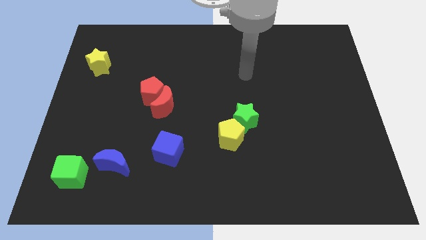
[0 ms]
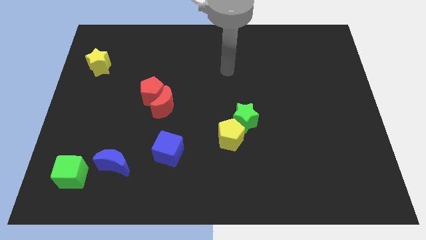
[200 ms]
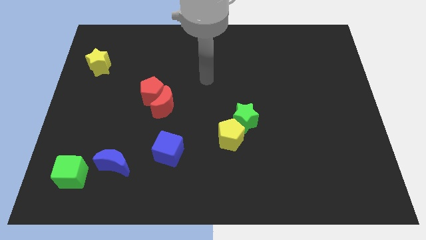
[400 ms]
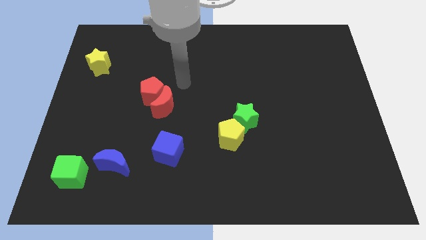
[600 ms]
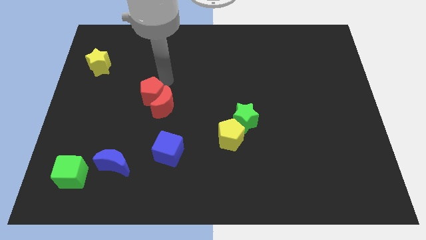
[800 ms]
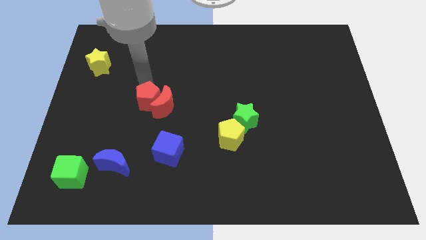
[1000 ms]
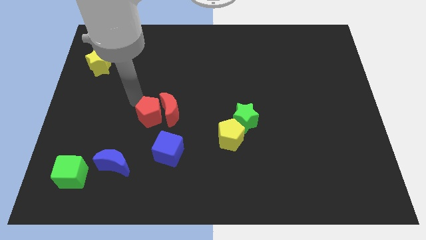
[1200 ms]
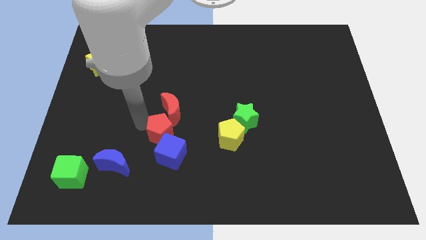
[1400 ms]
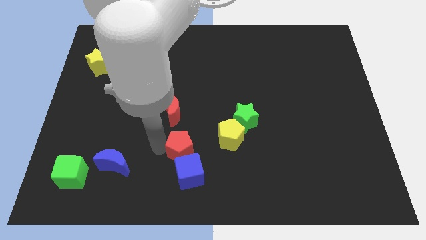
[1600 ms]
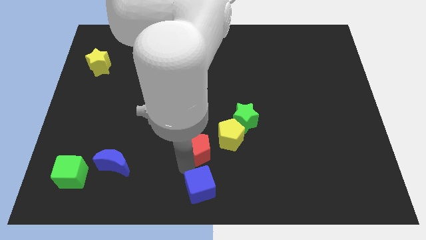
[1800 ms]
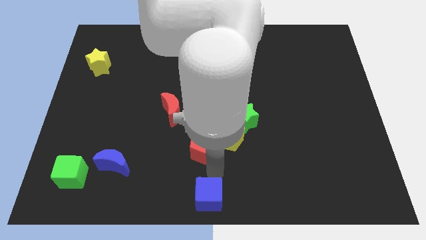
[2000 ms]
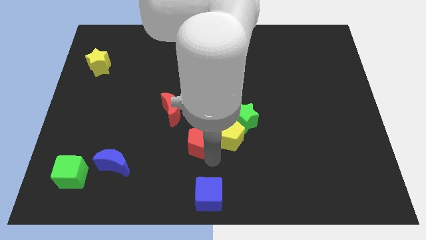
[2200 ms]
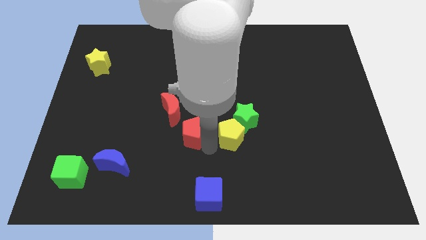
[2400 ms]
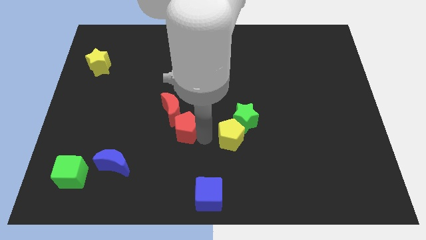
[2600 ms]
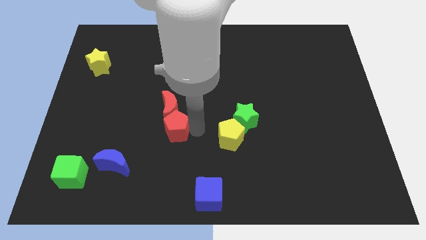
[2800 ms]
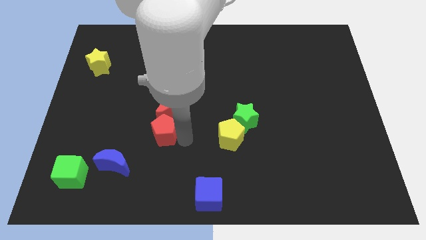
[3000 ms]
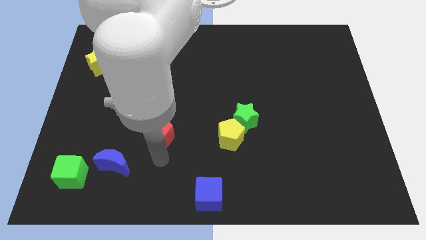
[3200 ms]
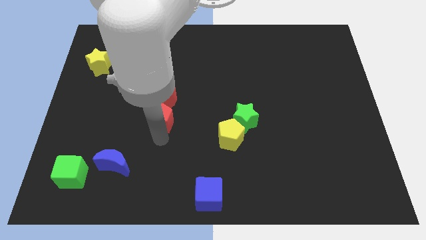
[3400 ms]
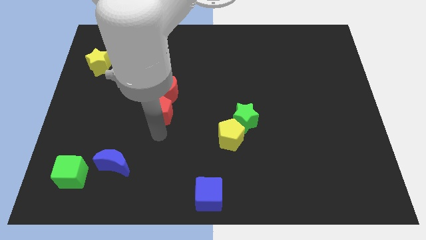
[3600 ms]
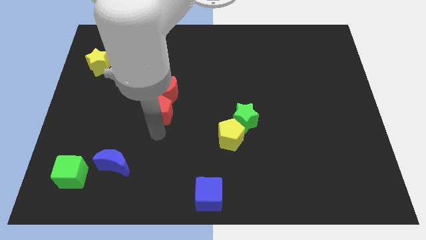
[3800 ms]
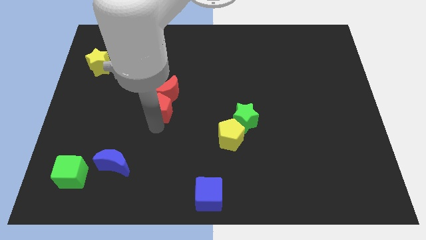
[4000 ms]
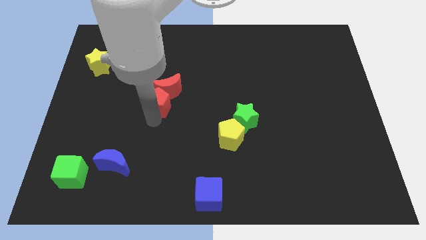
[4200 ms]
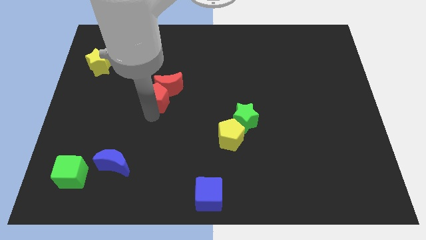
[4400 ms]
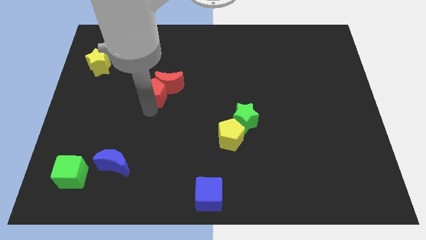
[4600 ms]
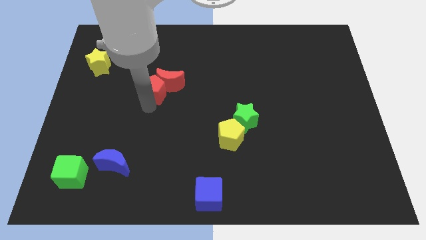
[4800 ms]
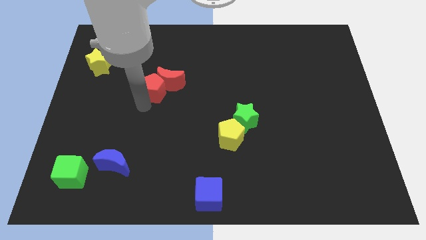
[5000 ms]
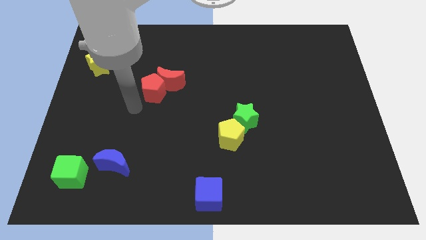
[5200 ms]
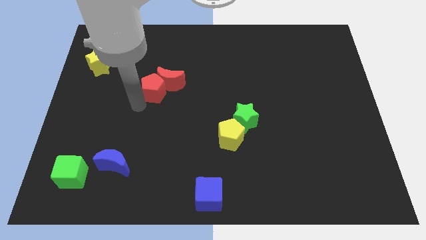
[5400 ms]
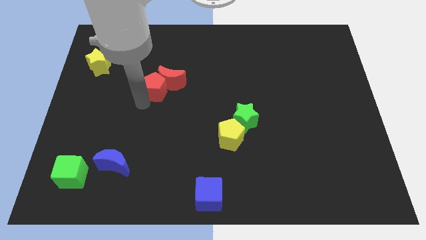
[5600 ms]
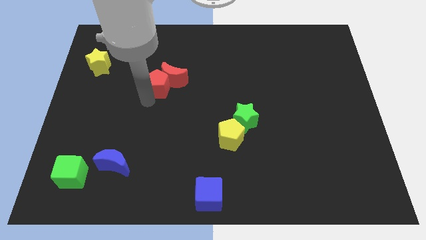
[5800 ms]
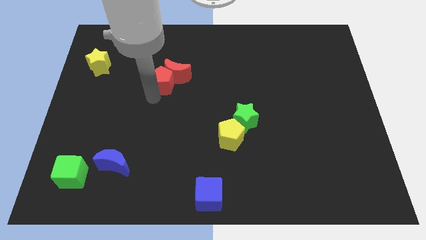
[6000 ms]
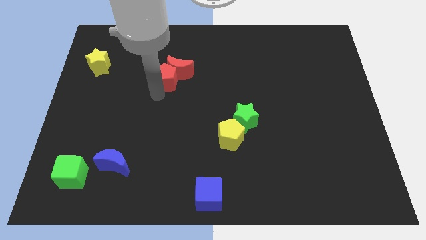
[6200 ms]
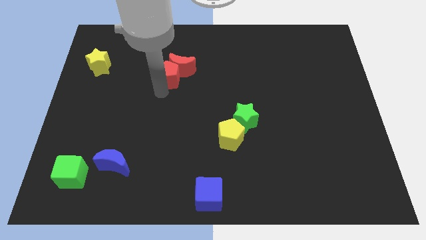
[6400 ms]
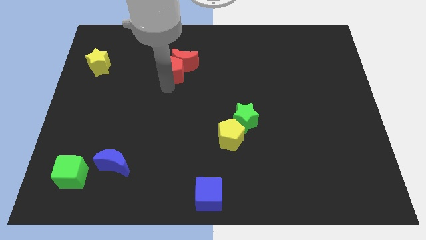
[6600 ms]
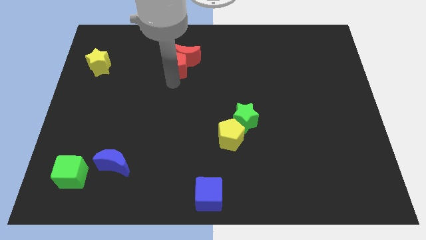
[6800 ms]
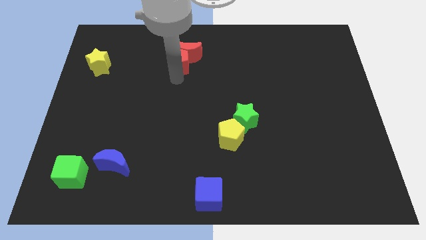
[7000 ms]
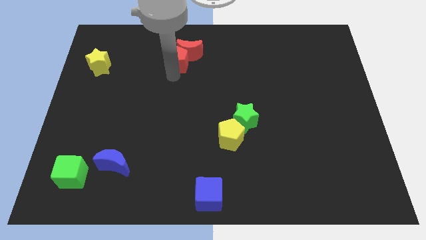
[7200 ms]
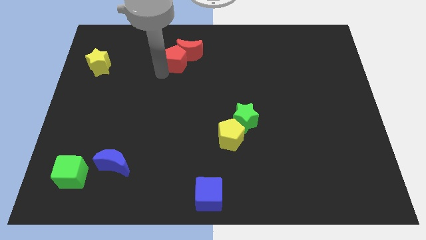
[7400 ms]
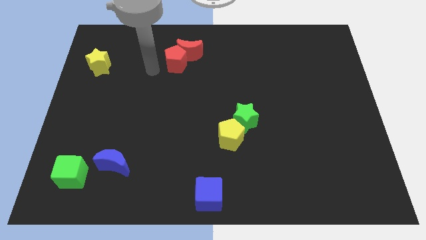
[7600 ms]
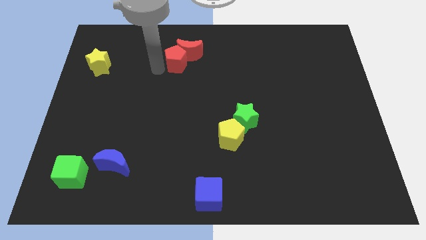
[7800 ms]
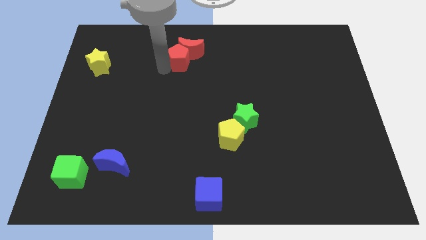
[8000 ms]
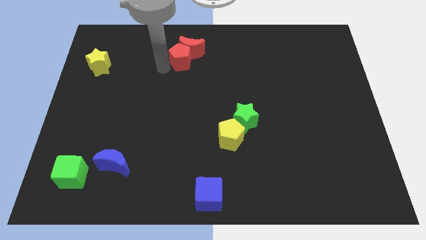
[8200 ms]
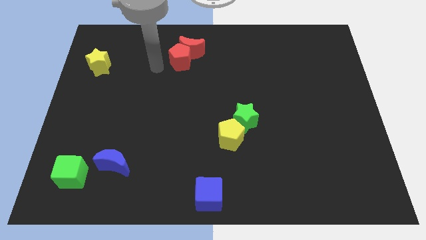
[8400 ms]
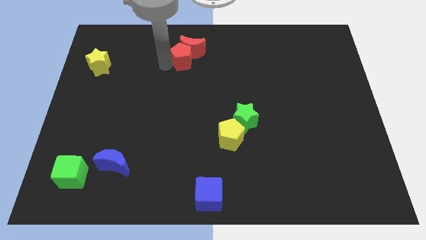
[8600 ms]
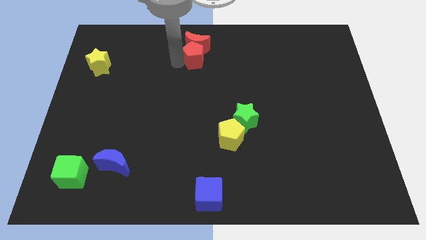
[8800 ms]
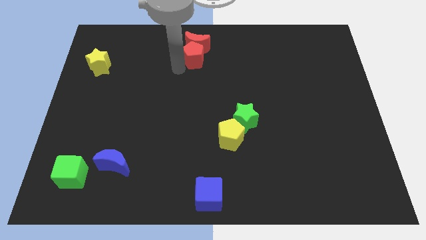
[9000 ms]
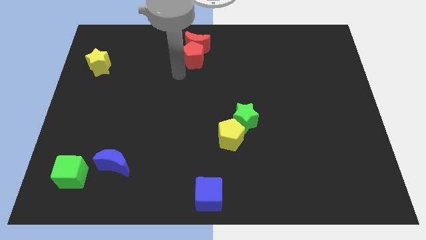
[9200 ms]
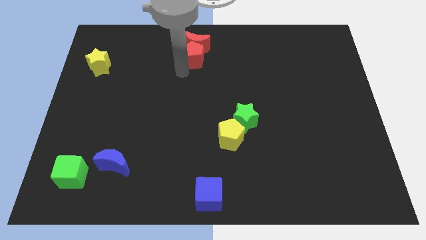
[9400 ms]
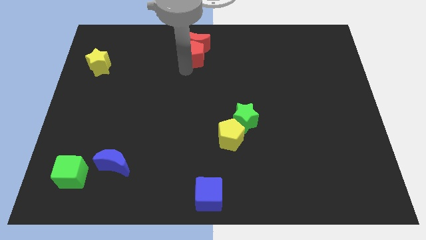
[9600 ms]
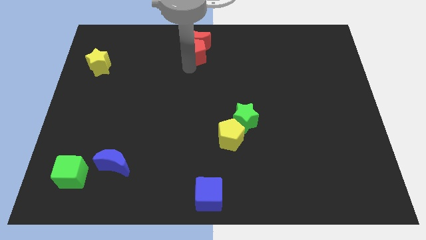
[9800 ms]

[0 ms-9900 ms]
push the red pentagon to the top

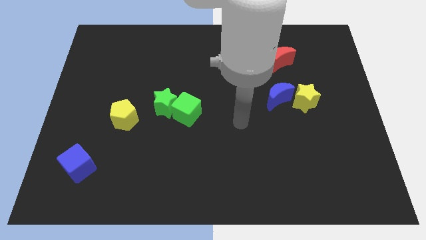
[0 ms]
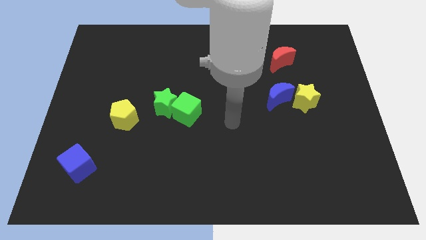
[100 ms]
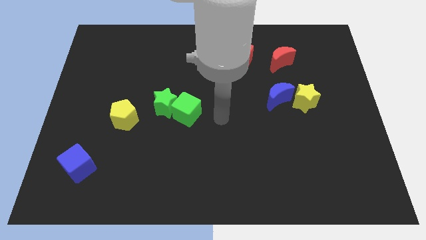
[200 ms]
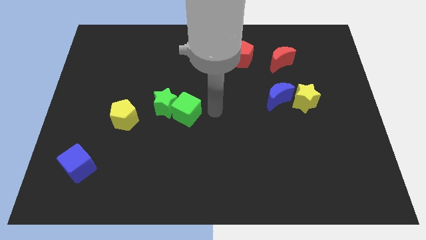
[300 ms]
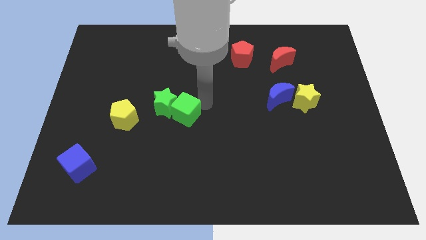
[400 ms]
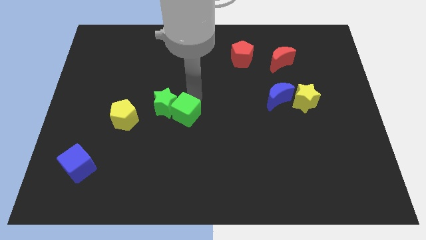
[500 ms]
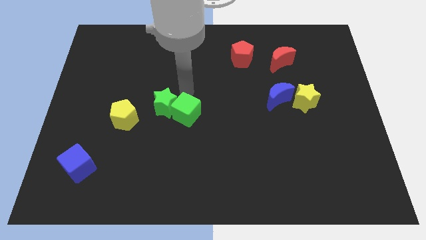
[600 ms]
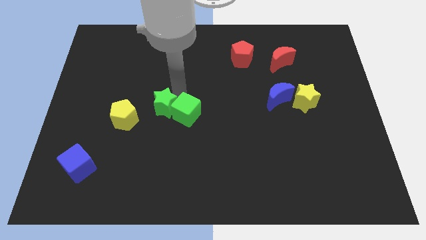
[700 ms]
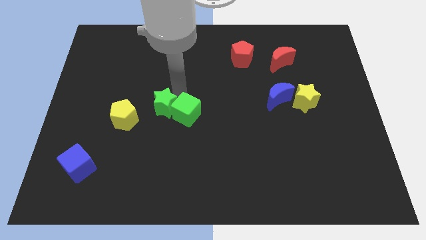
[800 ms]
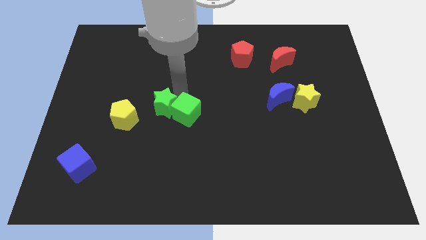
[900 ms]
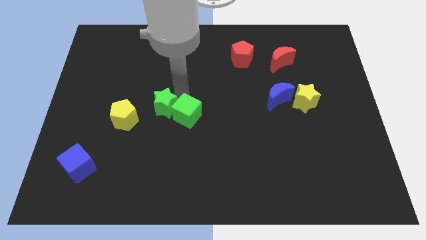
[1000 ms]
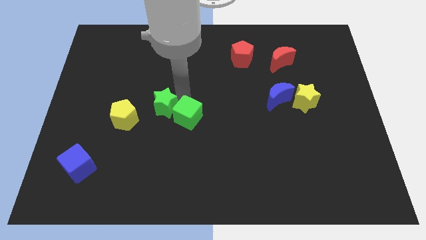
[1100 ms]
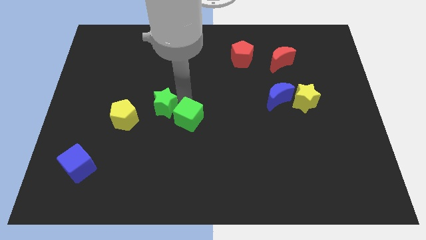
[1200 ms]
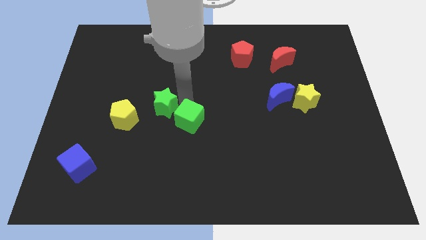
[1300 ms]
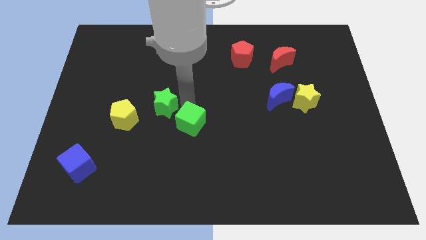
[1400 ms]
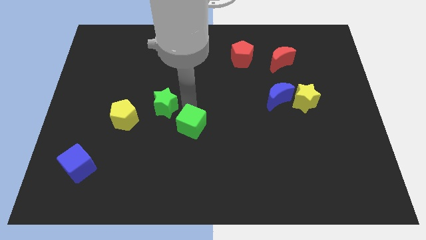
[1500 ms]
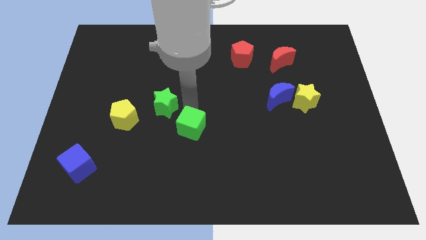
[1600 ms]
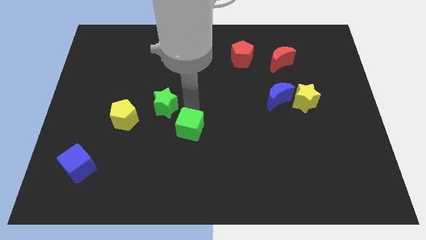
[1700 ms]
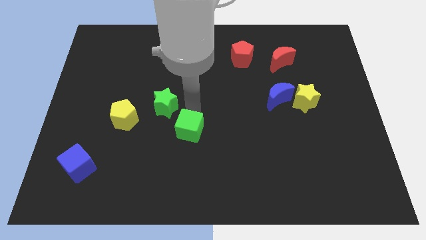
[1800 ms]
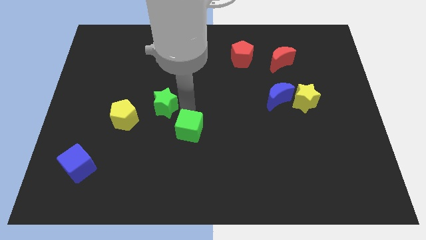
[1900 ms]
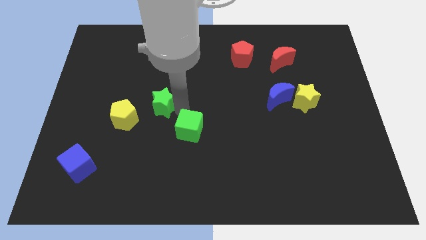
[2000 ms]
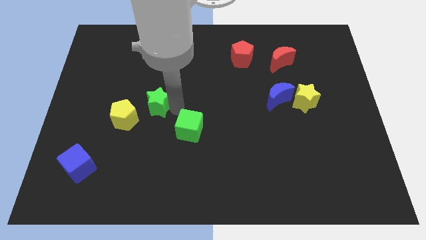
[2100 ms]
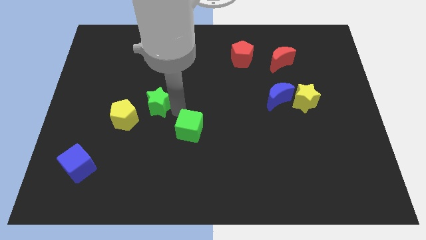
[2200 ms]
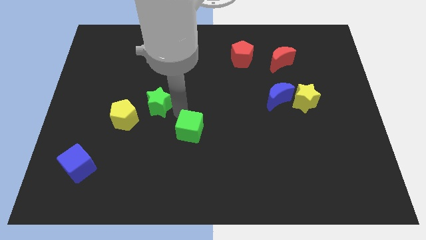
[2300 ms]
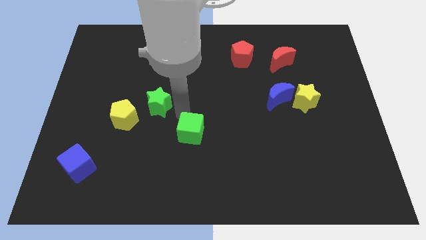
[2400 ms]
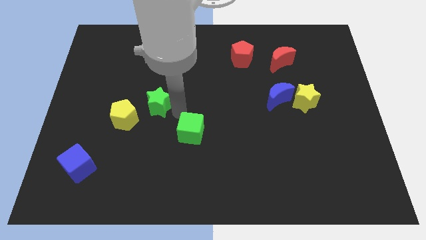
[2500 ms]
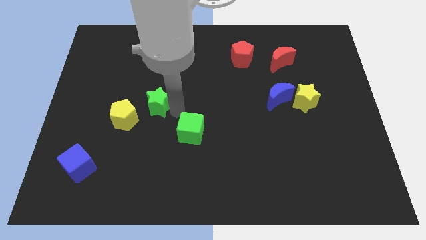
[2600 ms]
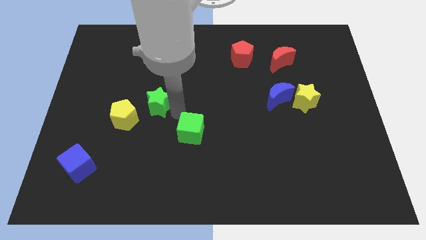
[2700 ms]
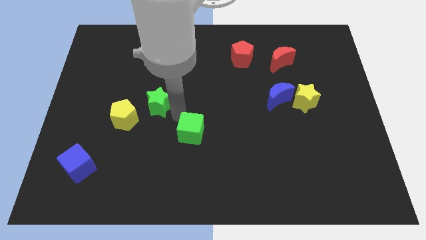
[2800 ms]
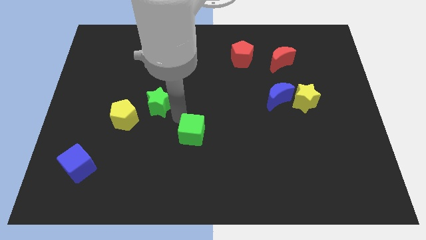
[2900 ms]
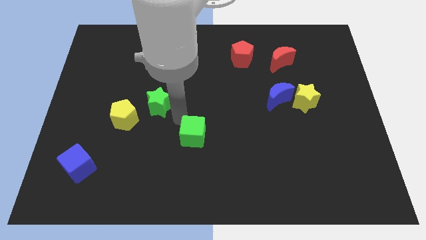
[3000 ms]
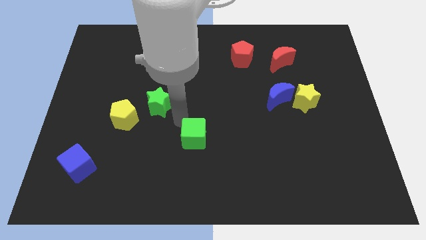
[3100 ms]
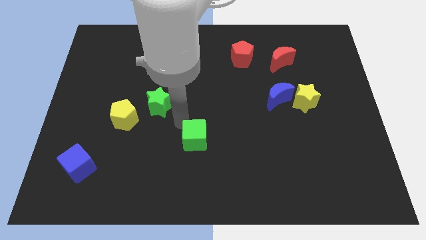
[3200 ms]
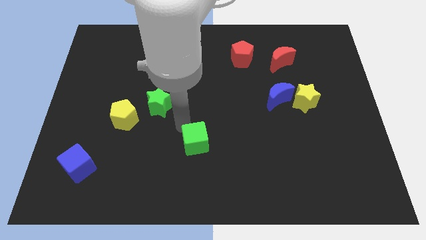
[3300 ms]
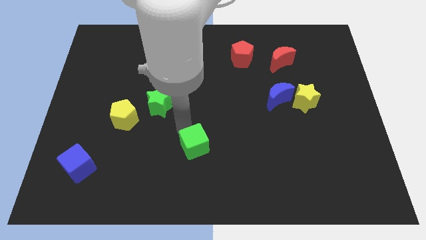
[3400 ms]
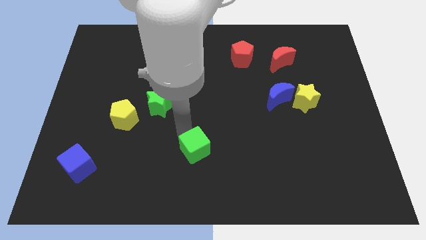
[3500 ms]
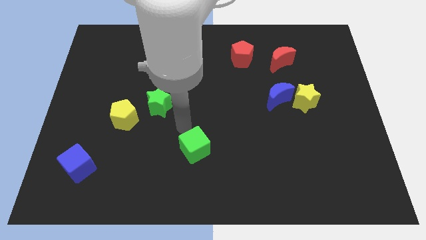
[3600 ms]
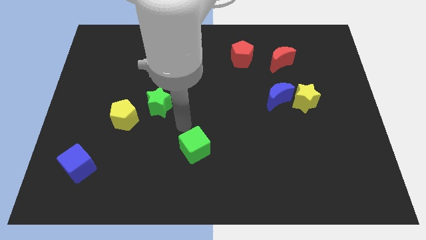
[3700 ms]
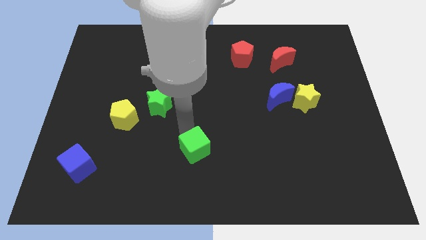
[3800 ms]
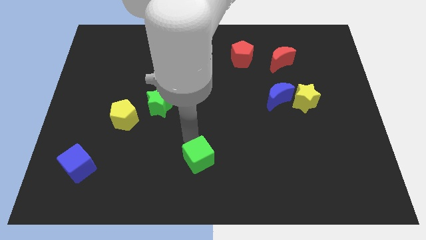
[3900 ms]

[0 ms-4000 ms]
move the green cube to the bottom side
